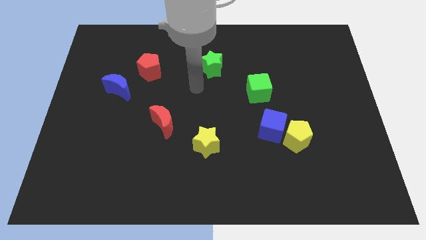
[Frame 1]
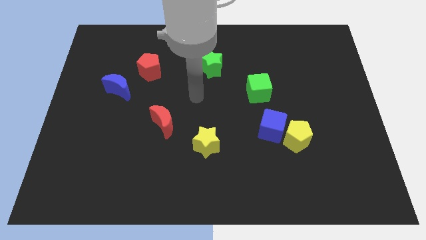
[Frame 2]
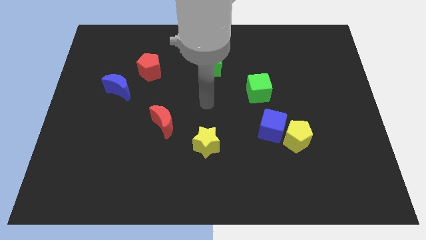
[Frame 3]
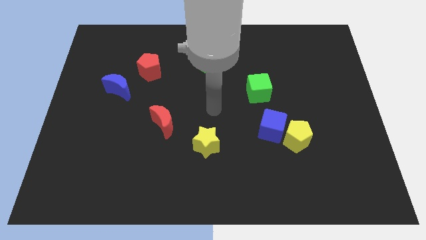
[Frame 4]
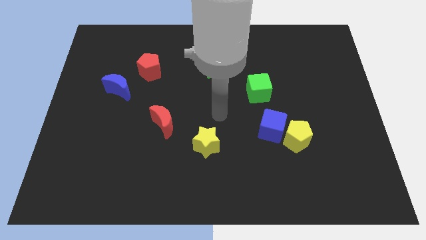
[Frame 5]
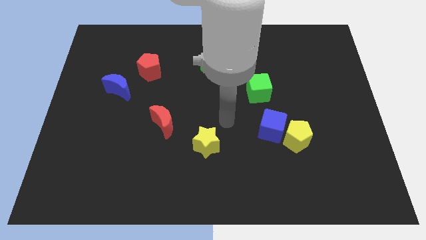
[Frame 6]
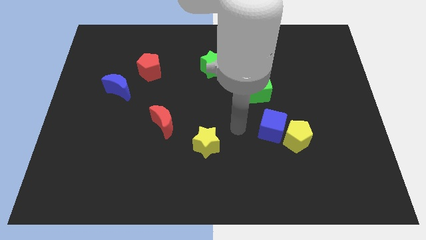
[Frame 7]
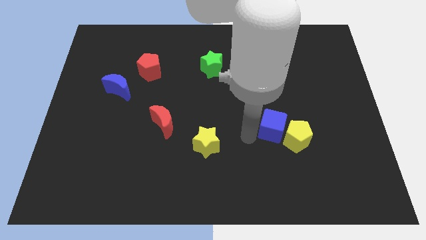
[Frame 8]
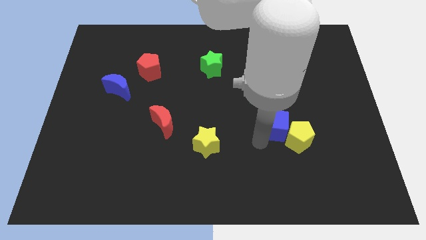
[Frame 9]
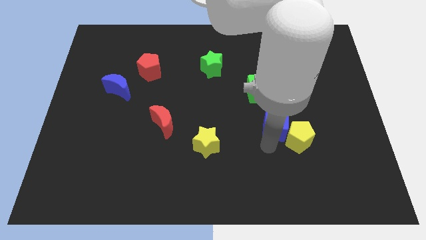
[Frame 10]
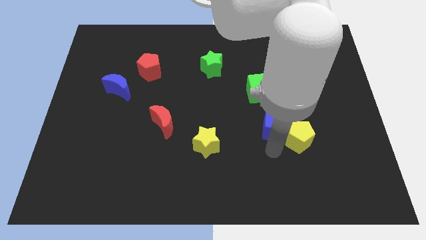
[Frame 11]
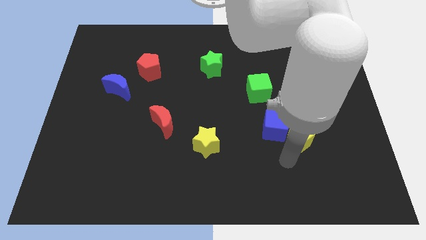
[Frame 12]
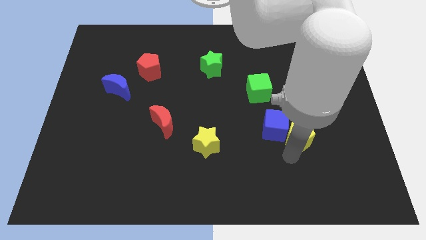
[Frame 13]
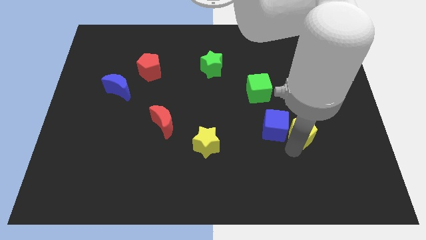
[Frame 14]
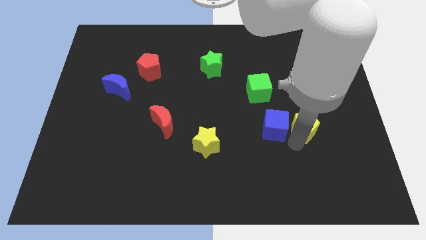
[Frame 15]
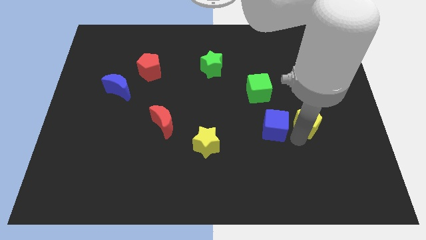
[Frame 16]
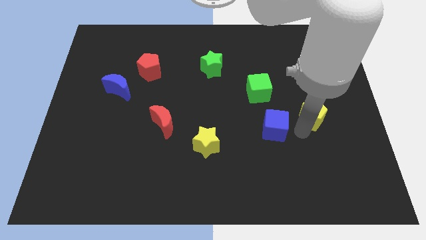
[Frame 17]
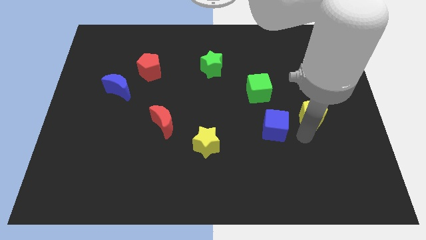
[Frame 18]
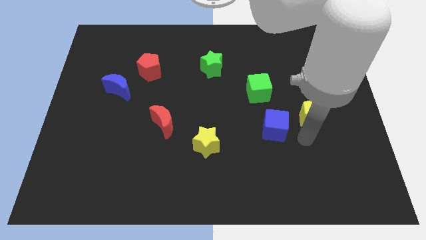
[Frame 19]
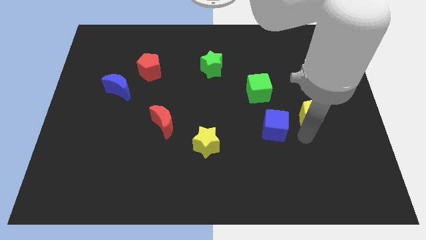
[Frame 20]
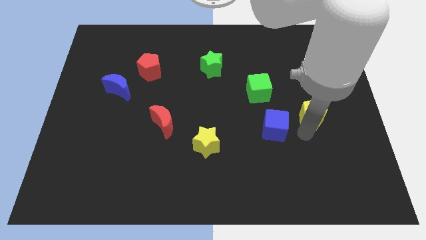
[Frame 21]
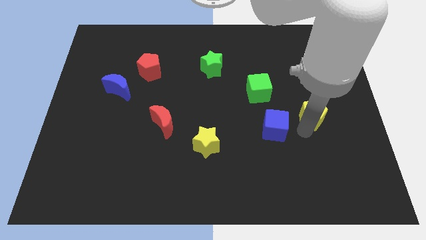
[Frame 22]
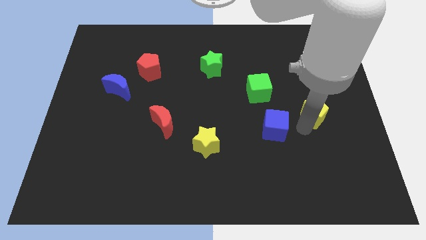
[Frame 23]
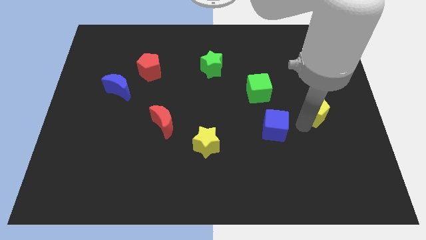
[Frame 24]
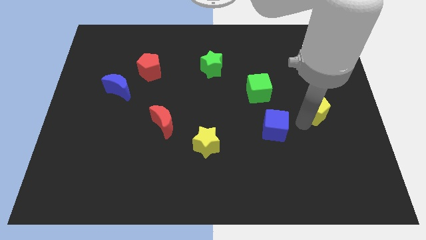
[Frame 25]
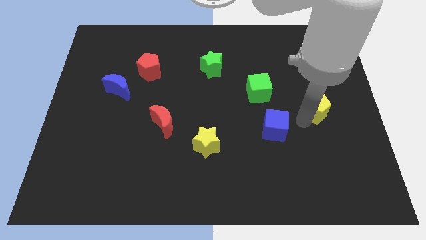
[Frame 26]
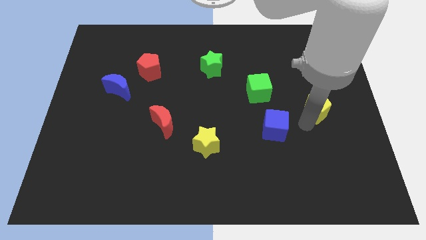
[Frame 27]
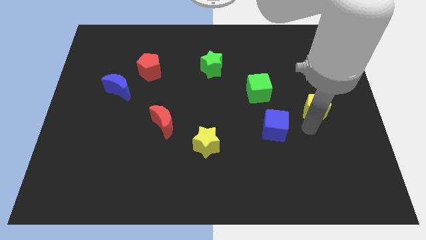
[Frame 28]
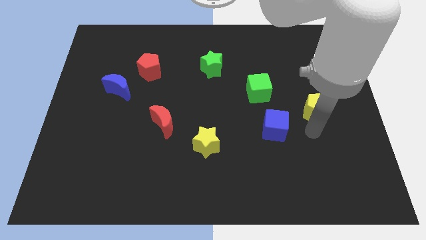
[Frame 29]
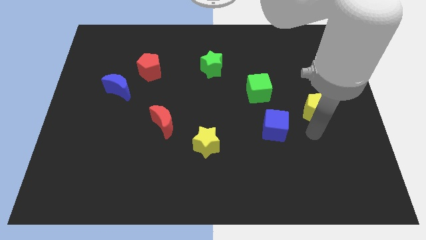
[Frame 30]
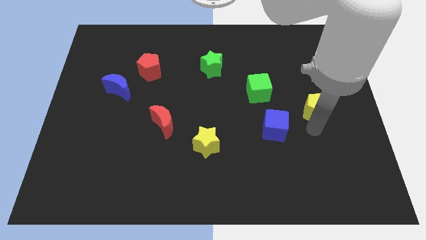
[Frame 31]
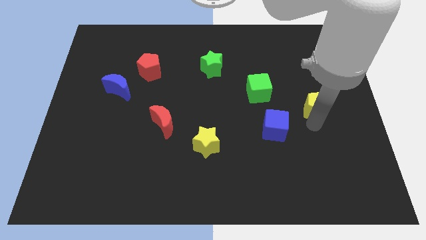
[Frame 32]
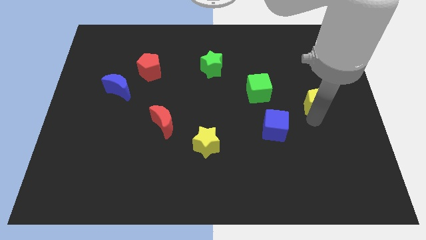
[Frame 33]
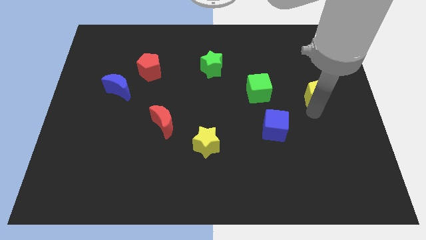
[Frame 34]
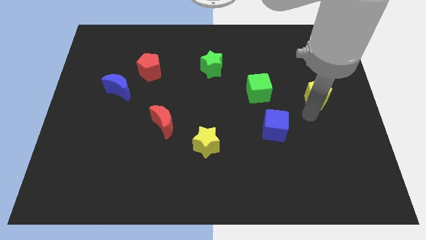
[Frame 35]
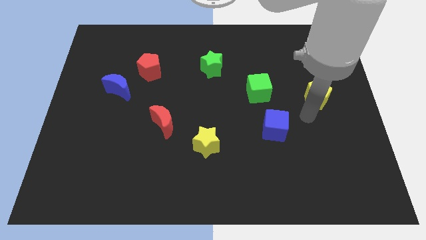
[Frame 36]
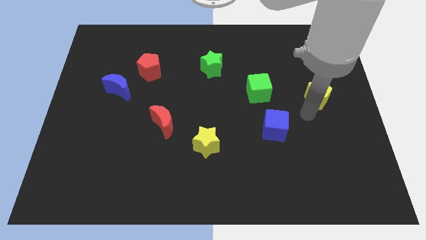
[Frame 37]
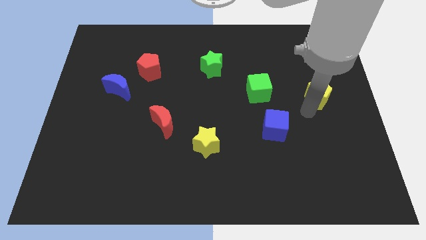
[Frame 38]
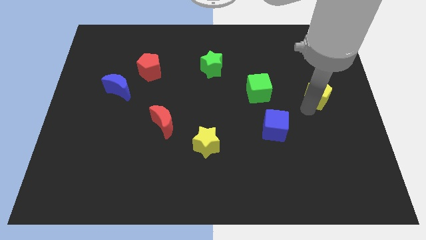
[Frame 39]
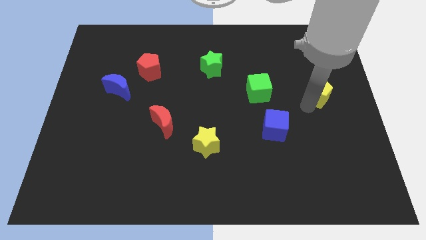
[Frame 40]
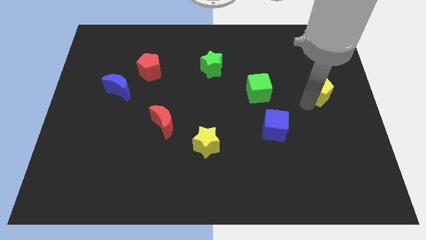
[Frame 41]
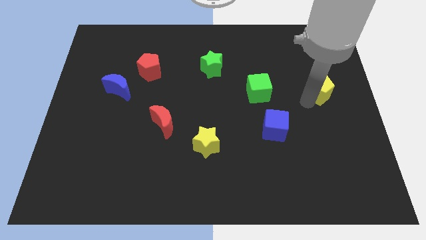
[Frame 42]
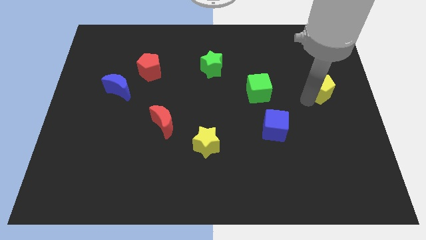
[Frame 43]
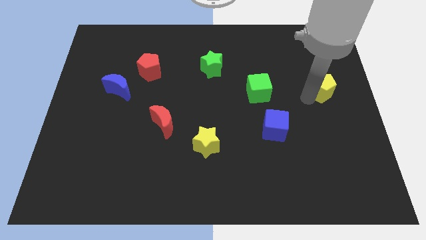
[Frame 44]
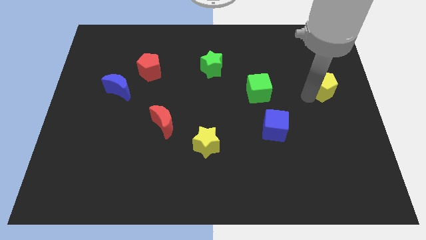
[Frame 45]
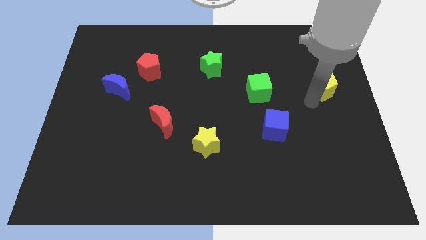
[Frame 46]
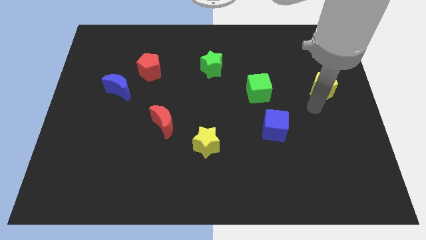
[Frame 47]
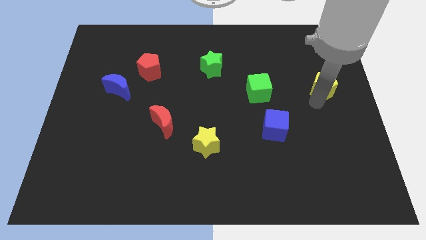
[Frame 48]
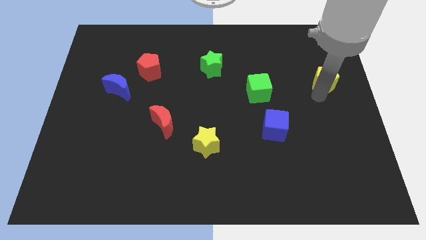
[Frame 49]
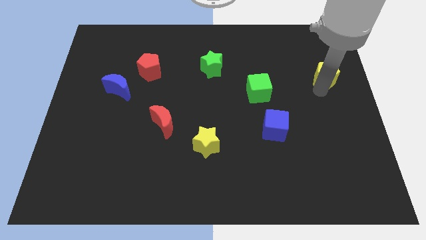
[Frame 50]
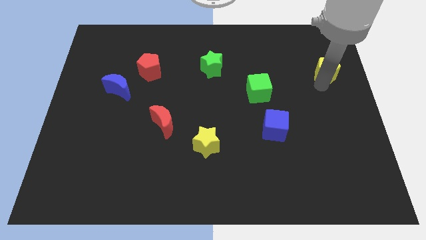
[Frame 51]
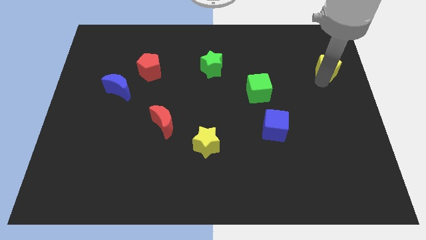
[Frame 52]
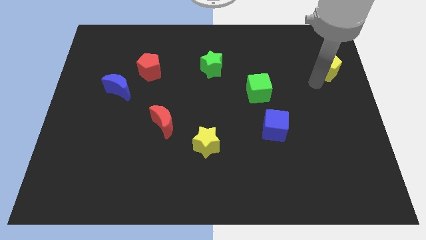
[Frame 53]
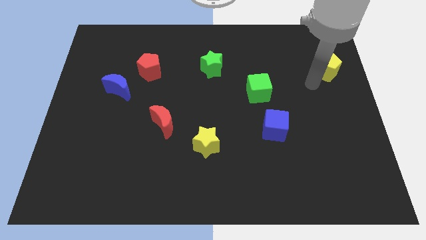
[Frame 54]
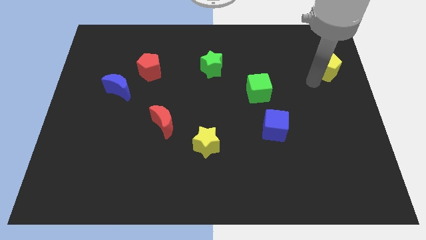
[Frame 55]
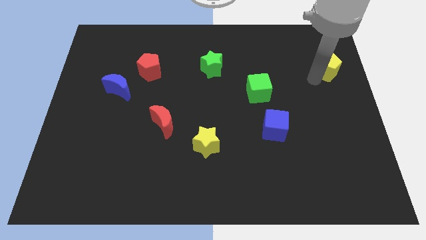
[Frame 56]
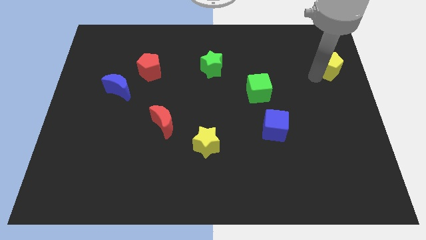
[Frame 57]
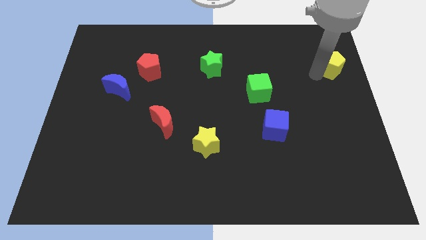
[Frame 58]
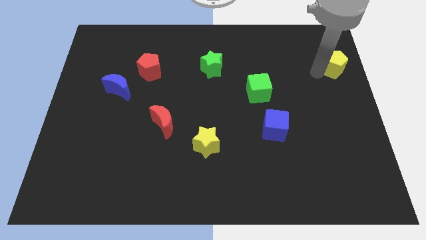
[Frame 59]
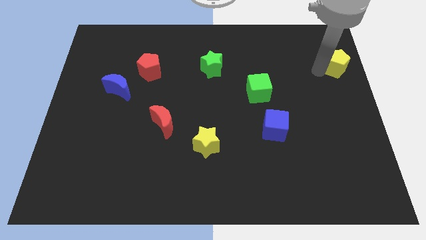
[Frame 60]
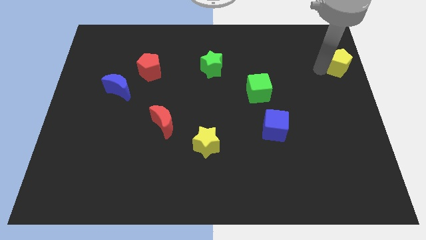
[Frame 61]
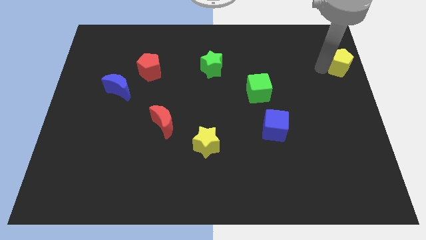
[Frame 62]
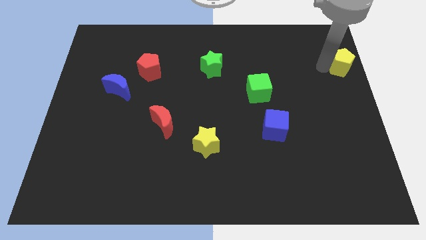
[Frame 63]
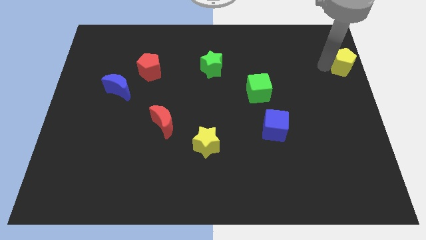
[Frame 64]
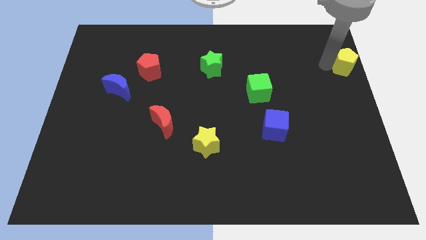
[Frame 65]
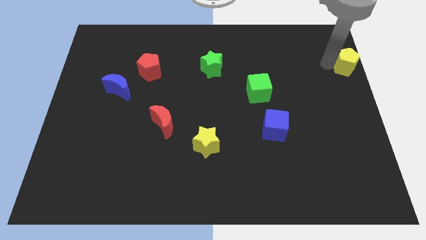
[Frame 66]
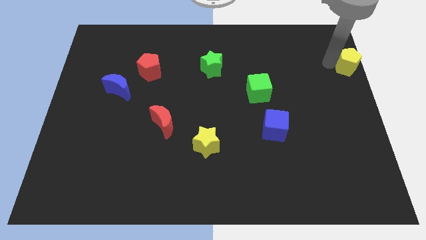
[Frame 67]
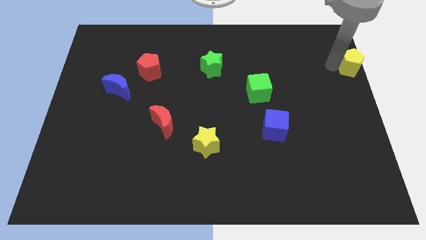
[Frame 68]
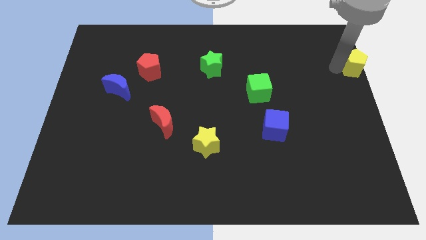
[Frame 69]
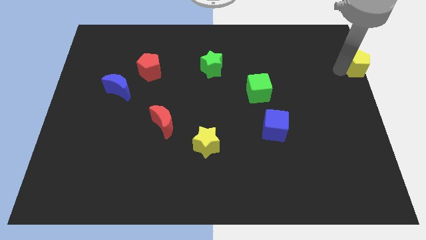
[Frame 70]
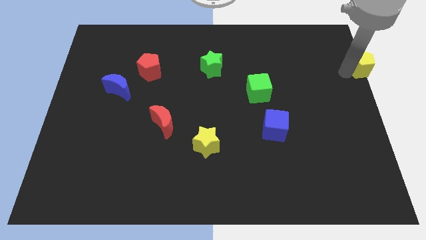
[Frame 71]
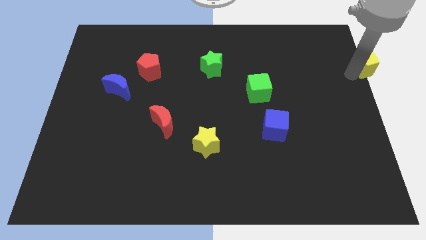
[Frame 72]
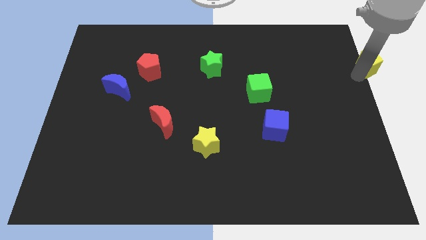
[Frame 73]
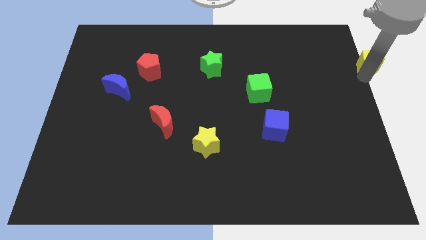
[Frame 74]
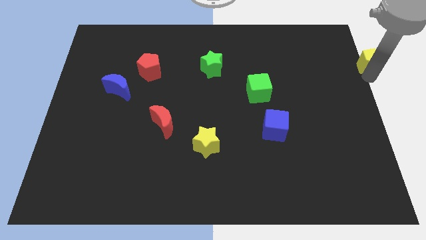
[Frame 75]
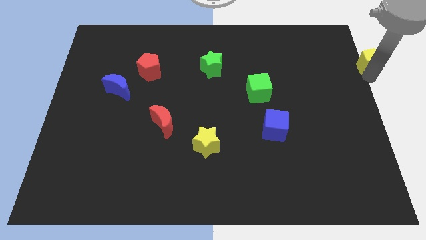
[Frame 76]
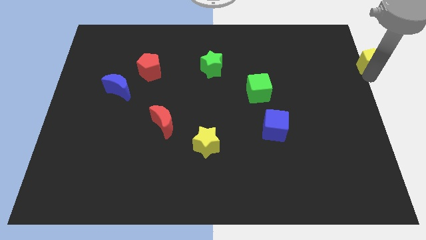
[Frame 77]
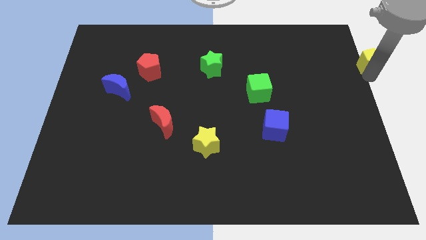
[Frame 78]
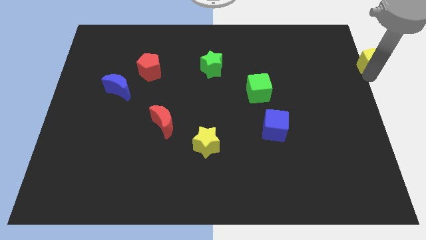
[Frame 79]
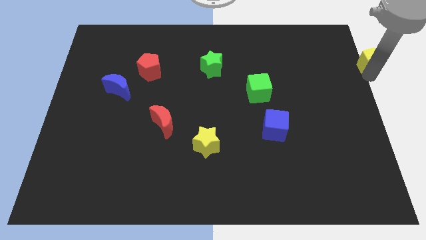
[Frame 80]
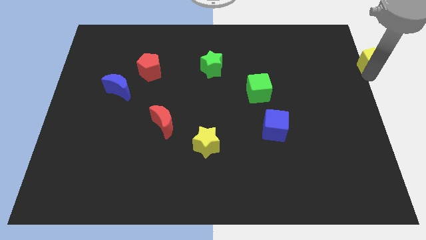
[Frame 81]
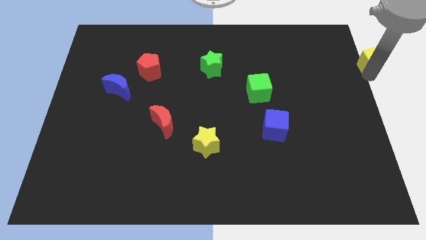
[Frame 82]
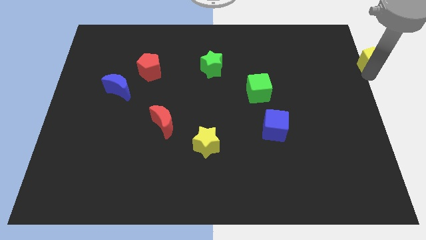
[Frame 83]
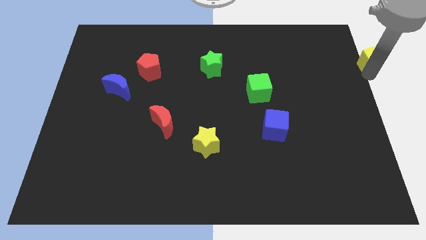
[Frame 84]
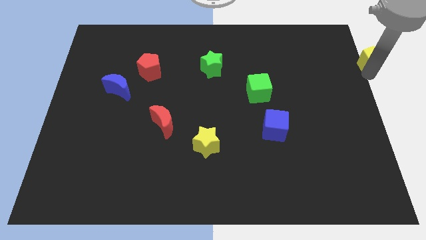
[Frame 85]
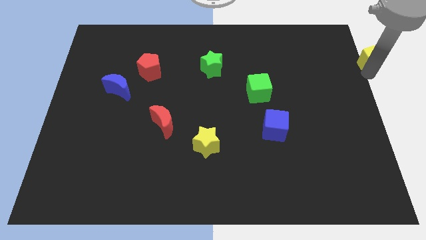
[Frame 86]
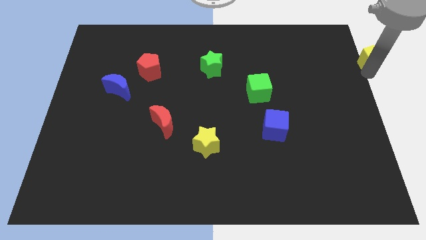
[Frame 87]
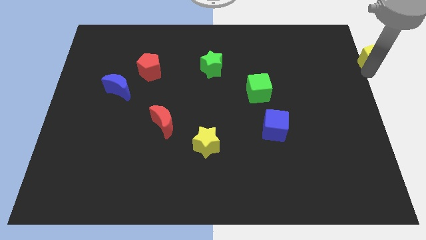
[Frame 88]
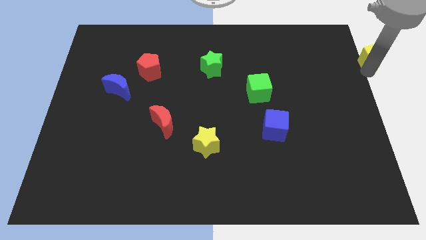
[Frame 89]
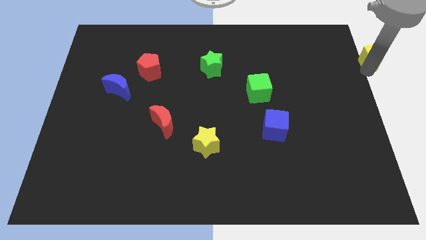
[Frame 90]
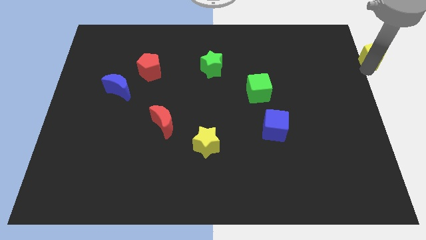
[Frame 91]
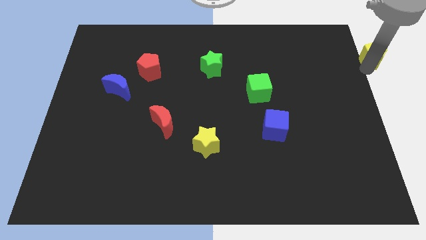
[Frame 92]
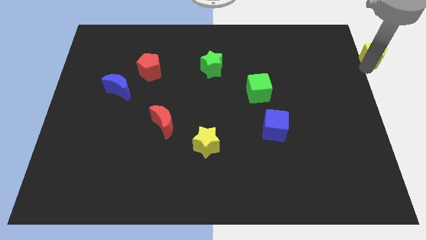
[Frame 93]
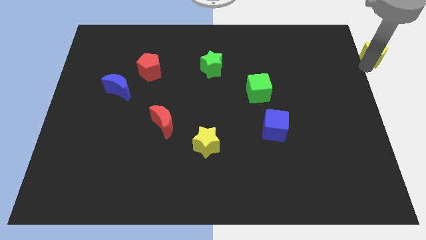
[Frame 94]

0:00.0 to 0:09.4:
move the yellow pentagon to the top right
